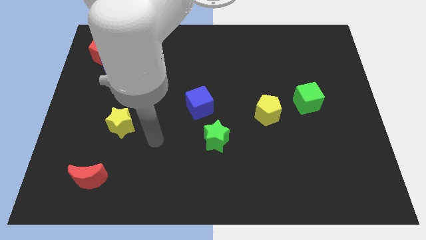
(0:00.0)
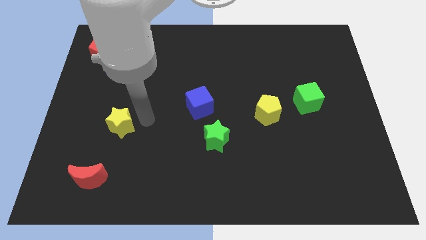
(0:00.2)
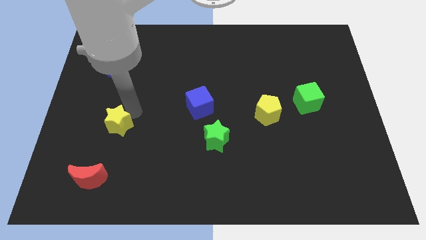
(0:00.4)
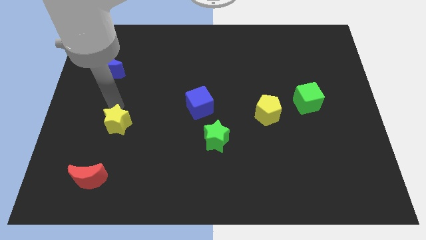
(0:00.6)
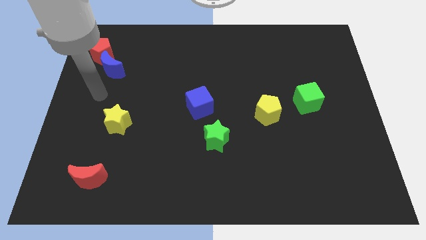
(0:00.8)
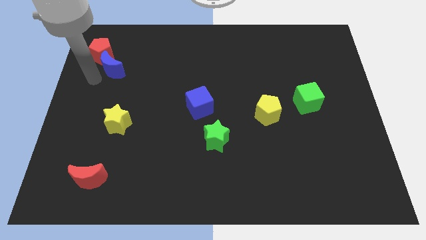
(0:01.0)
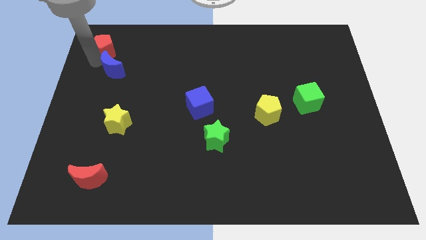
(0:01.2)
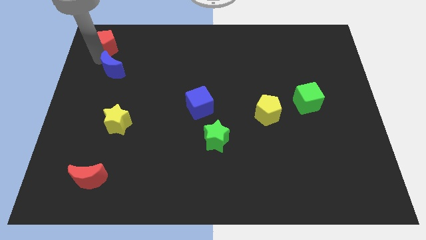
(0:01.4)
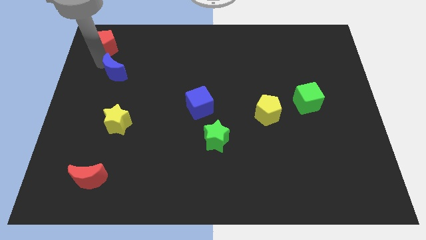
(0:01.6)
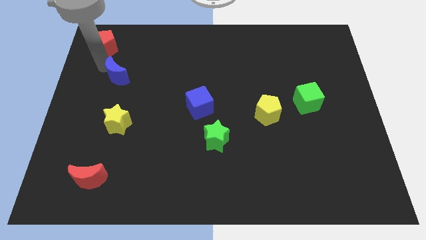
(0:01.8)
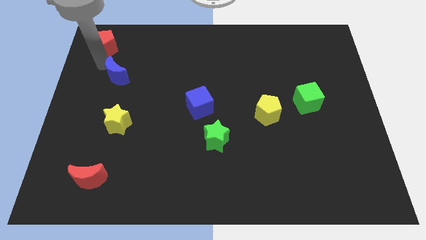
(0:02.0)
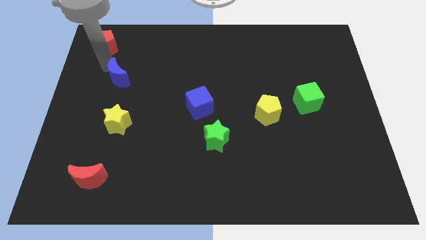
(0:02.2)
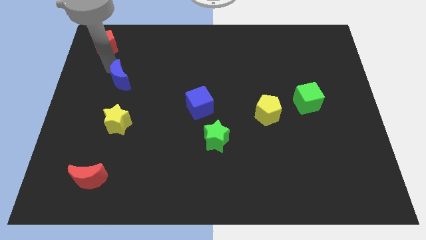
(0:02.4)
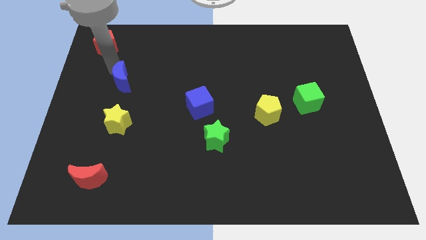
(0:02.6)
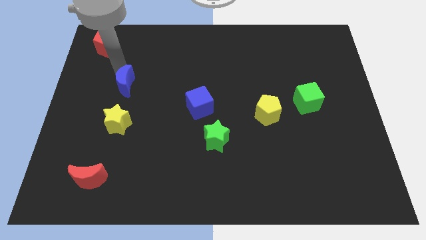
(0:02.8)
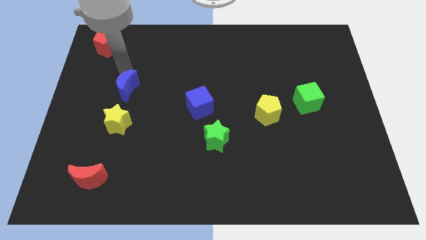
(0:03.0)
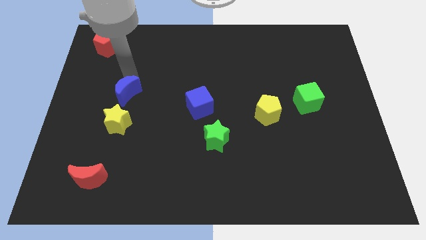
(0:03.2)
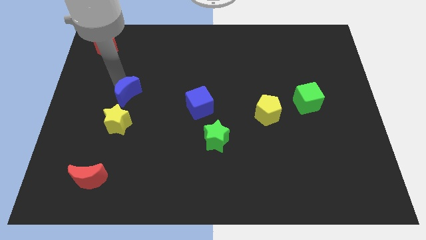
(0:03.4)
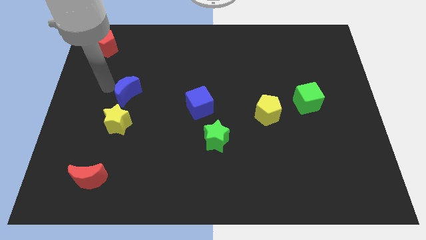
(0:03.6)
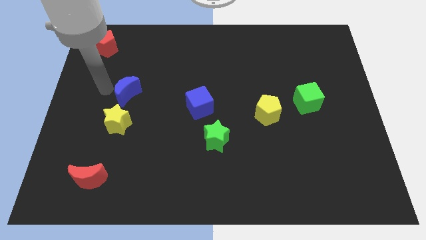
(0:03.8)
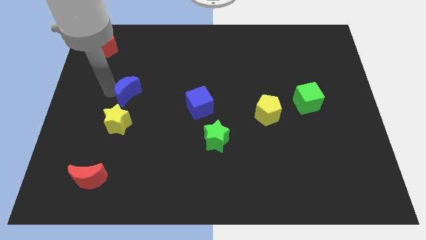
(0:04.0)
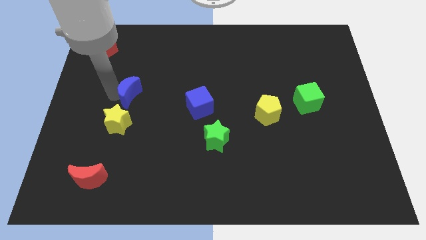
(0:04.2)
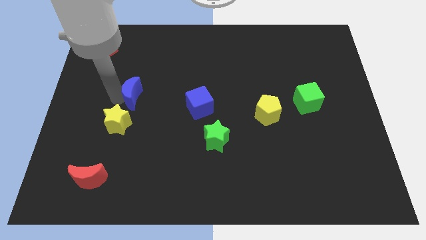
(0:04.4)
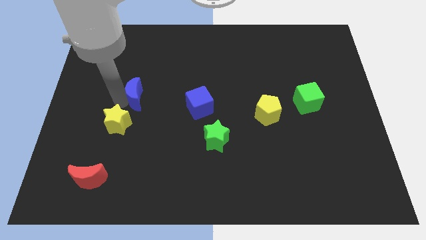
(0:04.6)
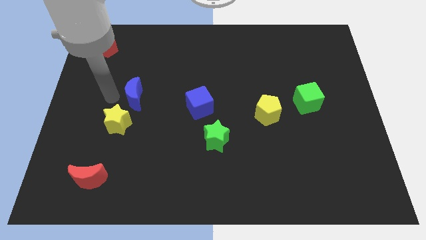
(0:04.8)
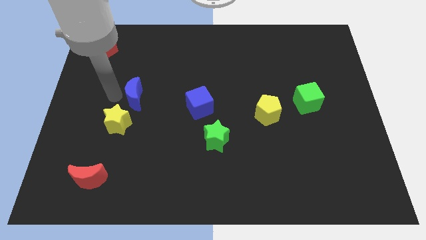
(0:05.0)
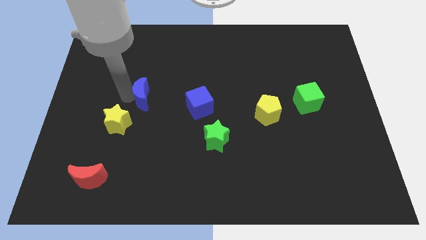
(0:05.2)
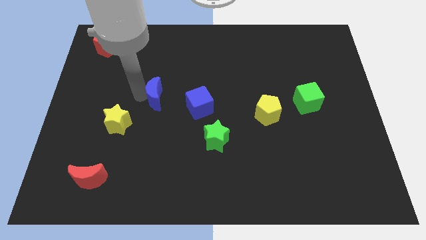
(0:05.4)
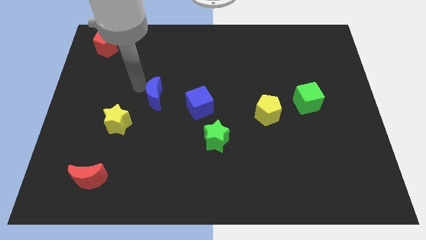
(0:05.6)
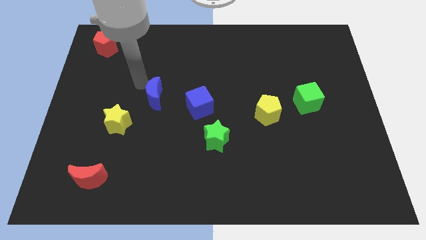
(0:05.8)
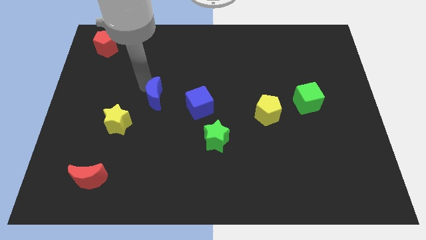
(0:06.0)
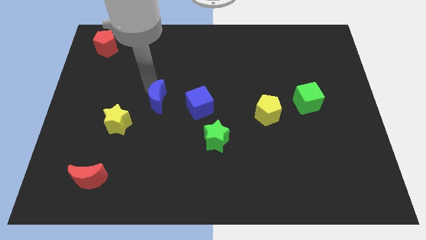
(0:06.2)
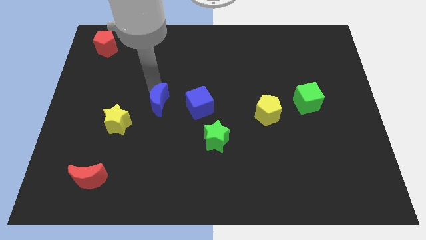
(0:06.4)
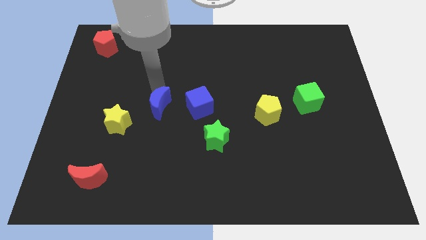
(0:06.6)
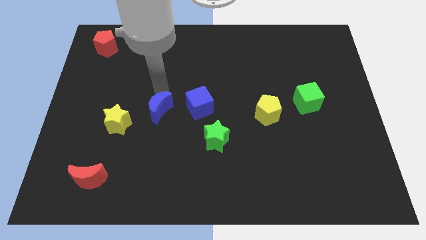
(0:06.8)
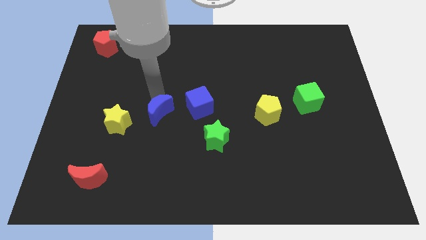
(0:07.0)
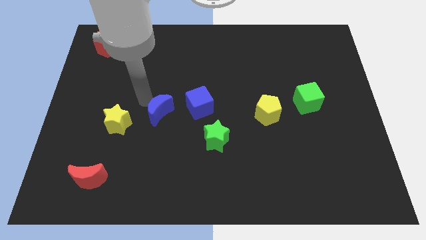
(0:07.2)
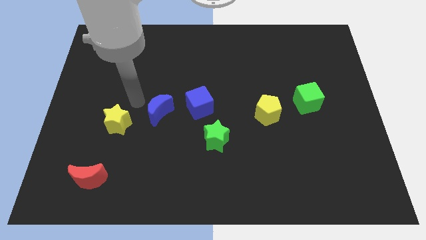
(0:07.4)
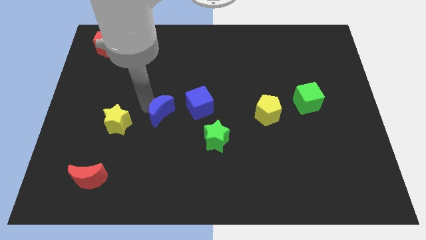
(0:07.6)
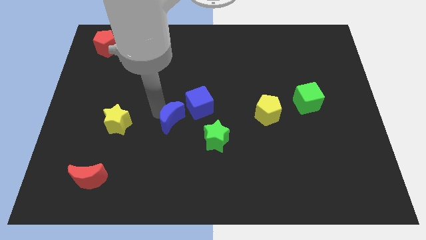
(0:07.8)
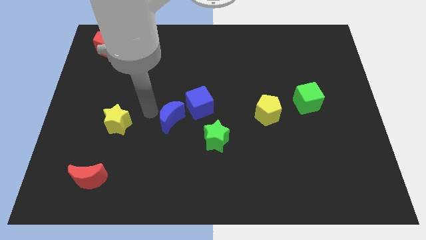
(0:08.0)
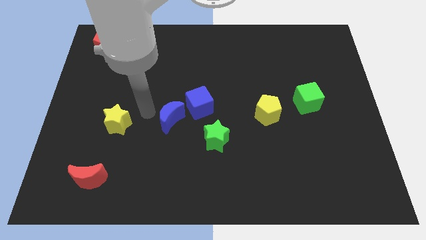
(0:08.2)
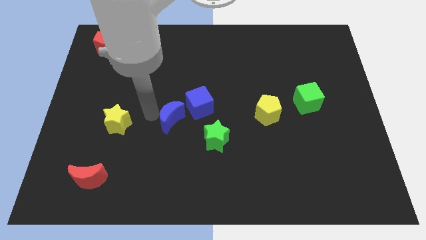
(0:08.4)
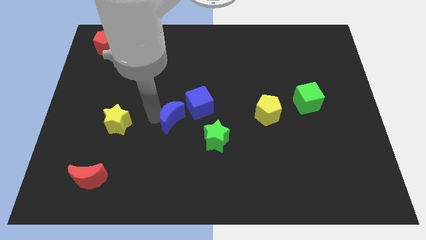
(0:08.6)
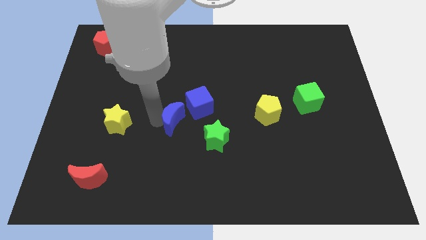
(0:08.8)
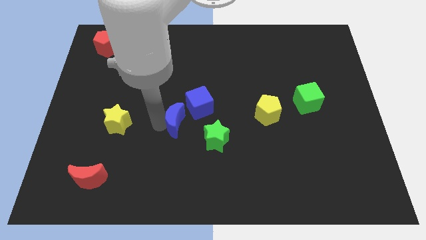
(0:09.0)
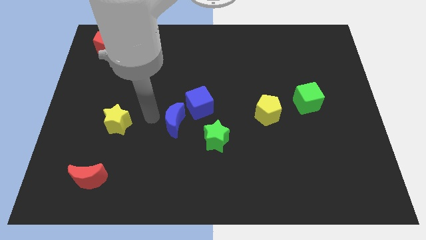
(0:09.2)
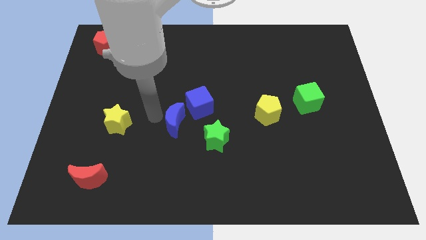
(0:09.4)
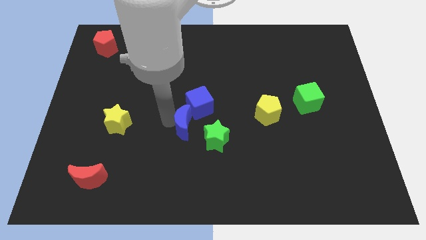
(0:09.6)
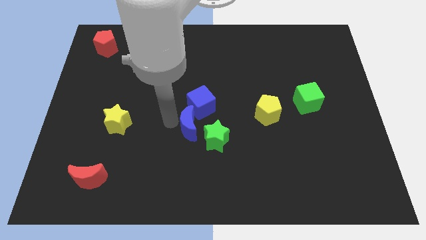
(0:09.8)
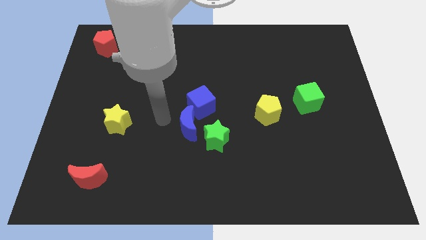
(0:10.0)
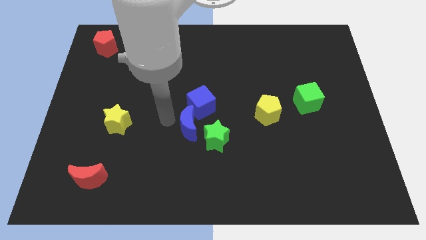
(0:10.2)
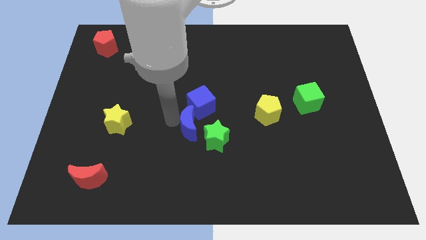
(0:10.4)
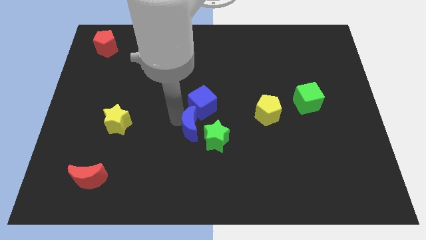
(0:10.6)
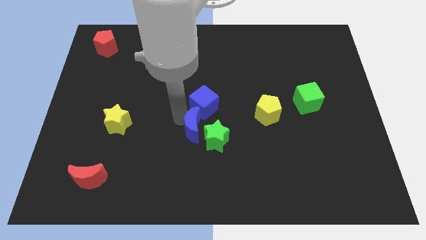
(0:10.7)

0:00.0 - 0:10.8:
slide the blue moon to the green star

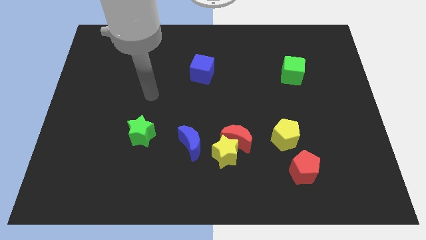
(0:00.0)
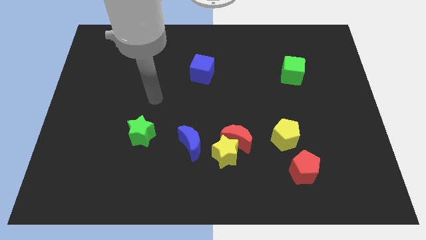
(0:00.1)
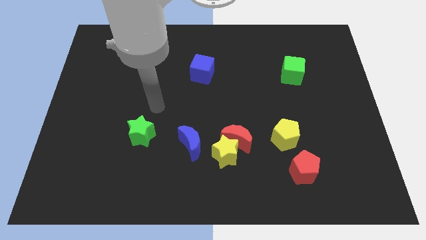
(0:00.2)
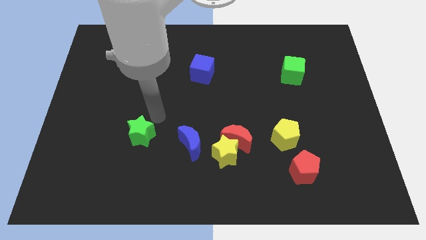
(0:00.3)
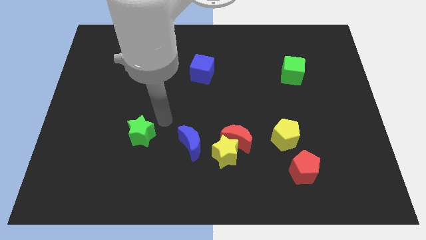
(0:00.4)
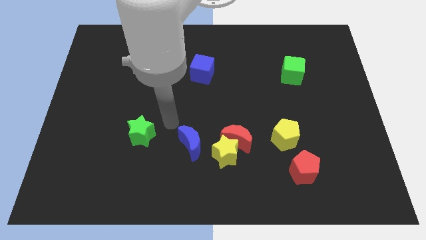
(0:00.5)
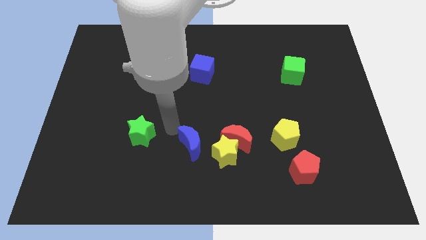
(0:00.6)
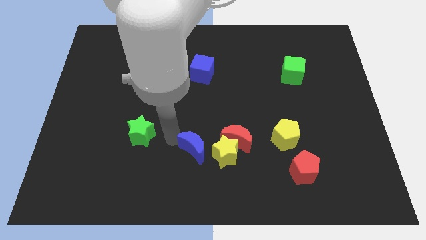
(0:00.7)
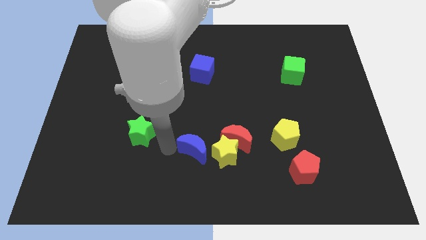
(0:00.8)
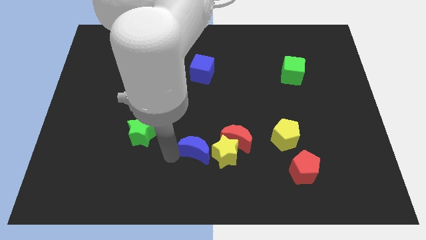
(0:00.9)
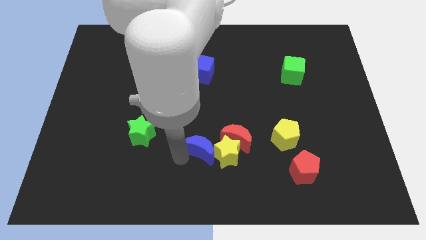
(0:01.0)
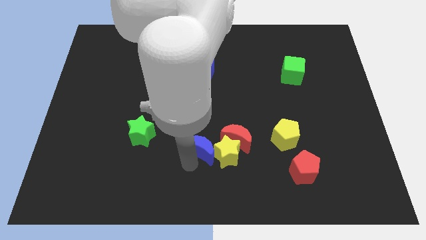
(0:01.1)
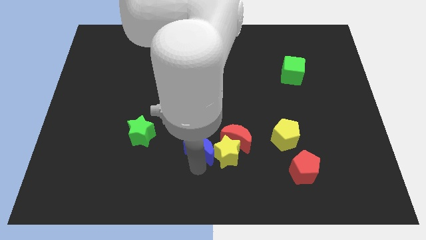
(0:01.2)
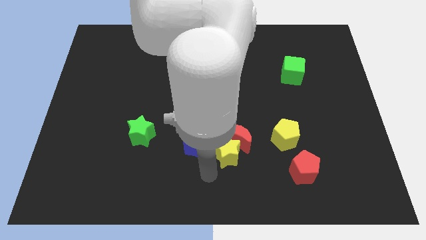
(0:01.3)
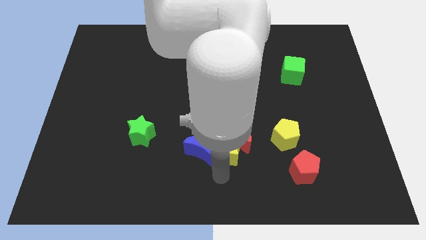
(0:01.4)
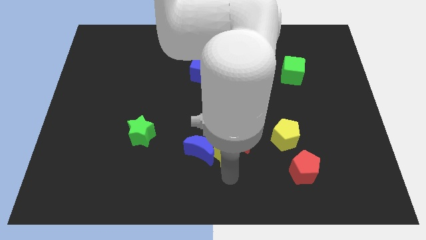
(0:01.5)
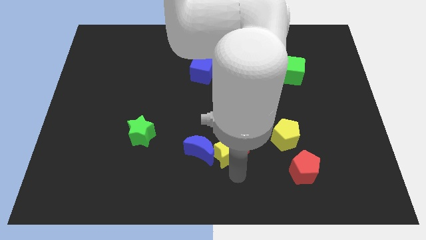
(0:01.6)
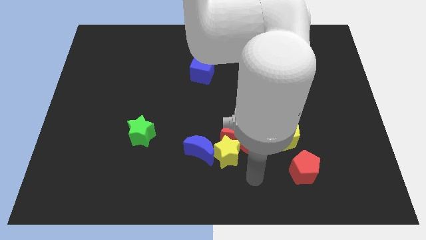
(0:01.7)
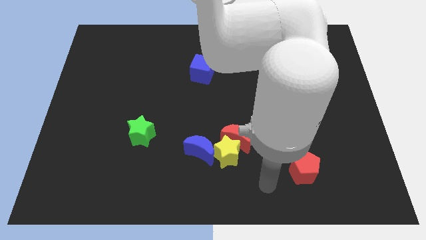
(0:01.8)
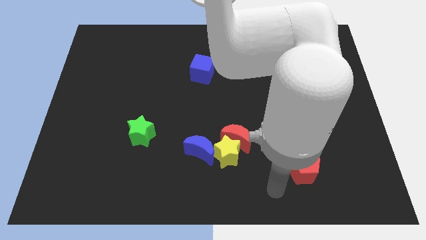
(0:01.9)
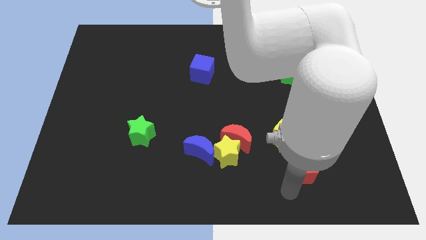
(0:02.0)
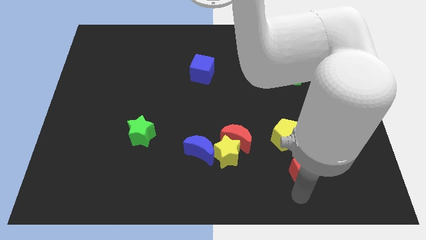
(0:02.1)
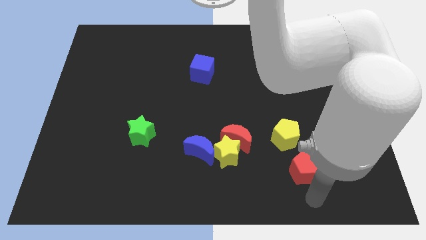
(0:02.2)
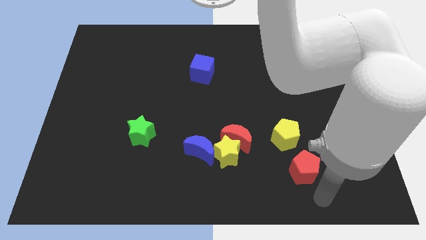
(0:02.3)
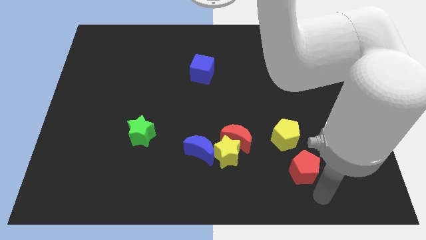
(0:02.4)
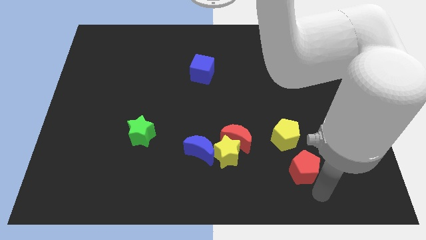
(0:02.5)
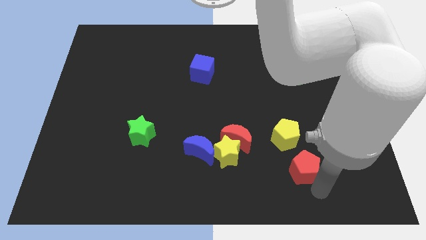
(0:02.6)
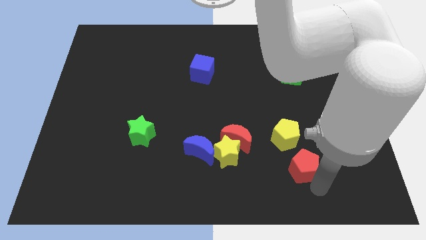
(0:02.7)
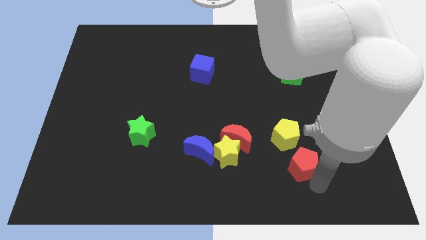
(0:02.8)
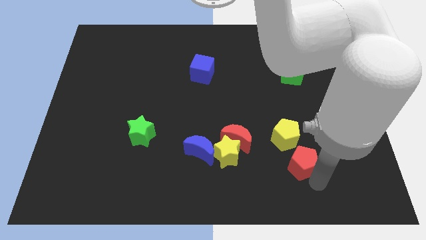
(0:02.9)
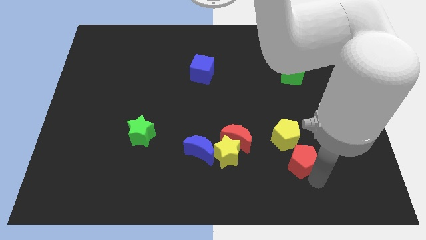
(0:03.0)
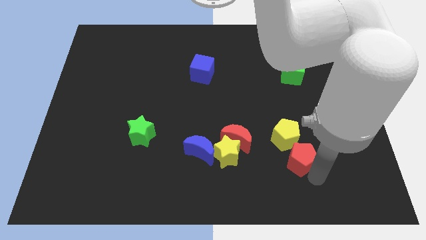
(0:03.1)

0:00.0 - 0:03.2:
put the red pentagon to the yellow pentagon
